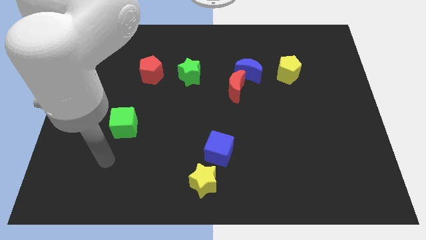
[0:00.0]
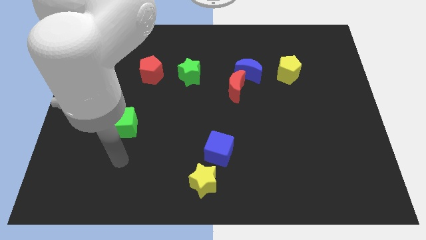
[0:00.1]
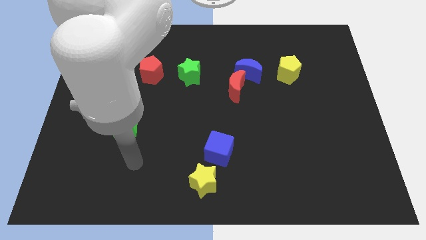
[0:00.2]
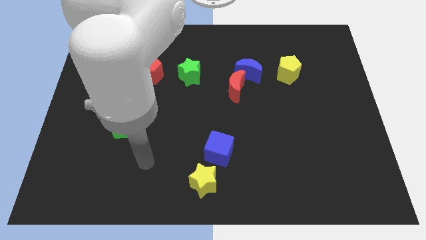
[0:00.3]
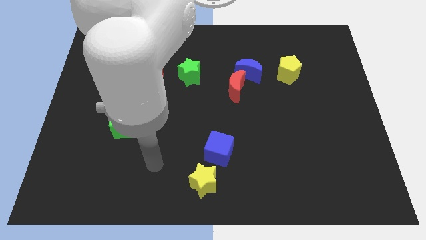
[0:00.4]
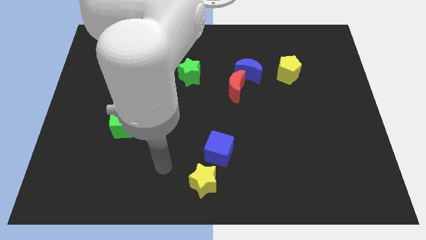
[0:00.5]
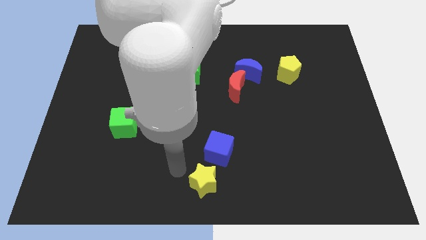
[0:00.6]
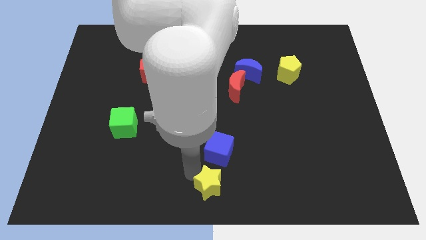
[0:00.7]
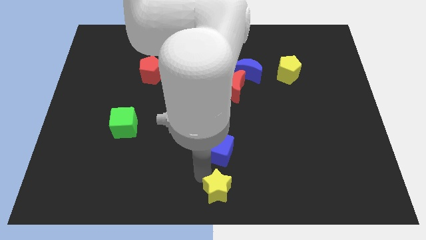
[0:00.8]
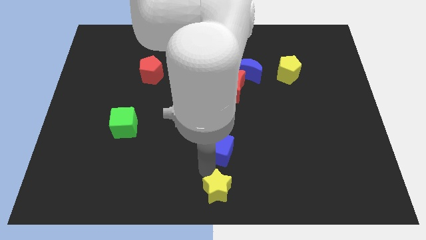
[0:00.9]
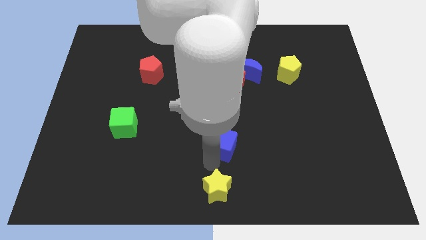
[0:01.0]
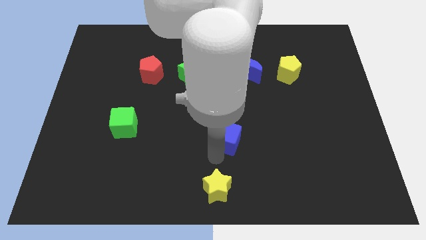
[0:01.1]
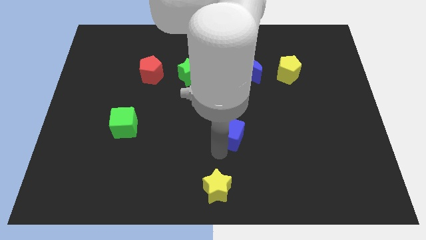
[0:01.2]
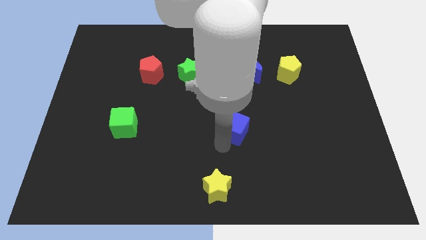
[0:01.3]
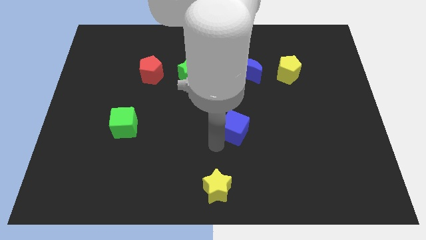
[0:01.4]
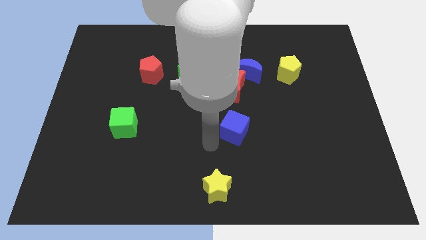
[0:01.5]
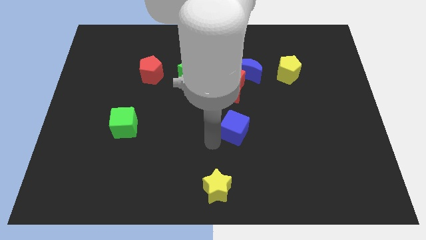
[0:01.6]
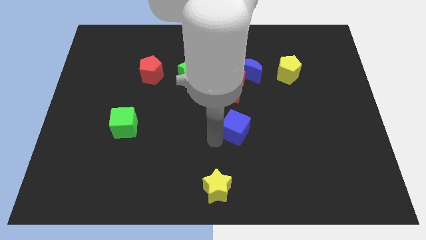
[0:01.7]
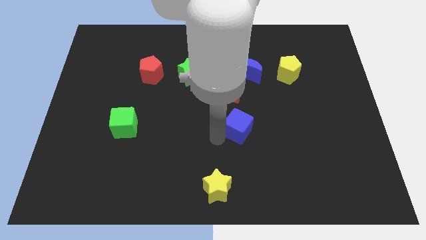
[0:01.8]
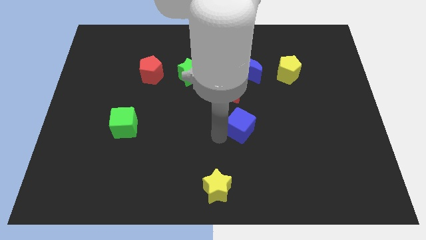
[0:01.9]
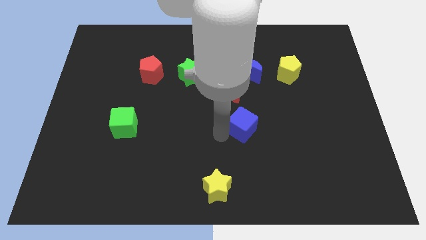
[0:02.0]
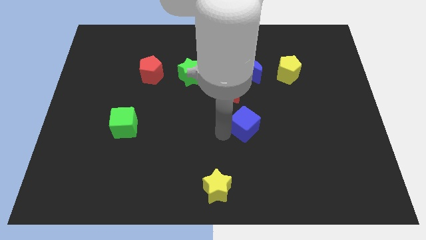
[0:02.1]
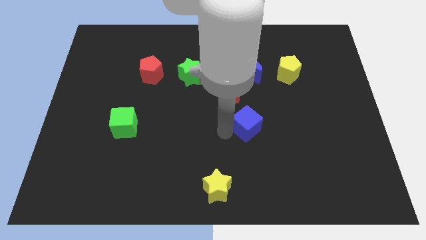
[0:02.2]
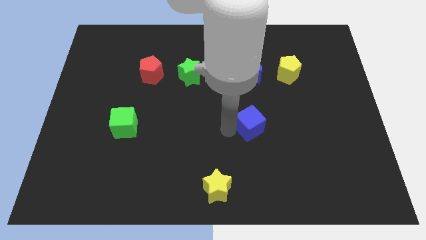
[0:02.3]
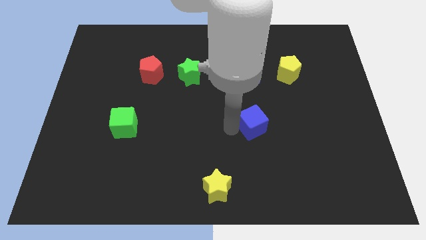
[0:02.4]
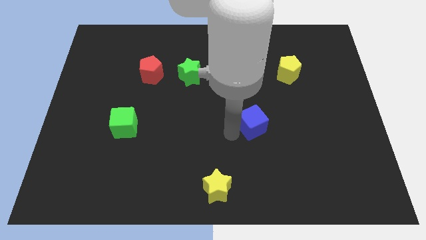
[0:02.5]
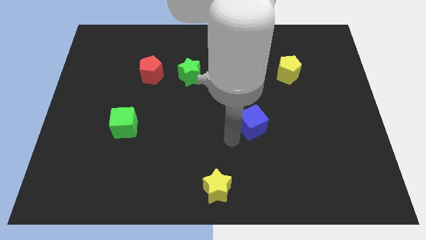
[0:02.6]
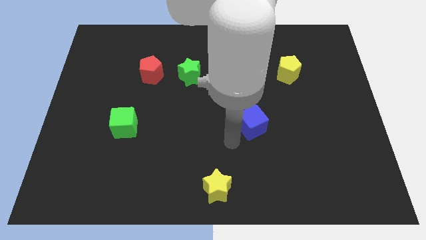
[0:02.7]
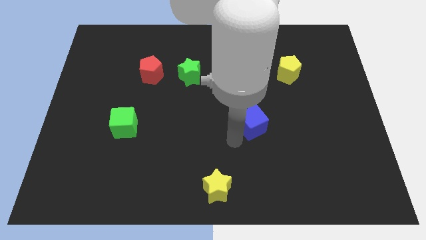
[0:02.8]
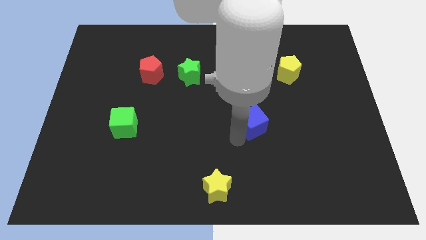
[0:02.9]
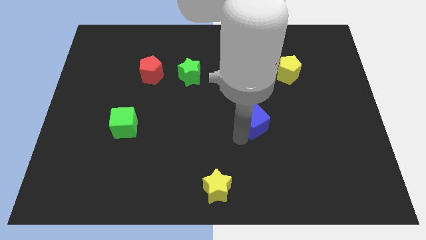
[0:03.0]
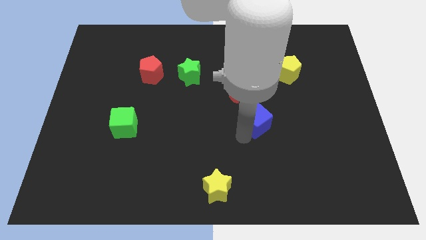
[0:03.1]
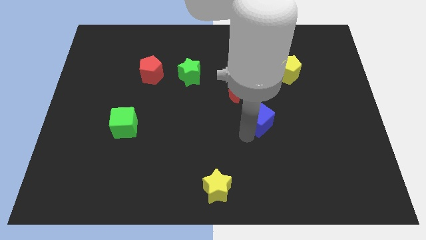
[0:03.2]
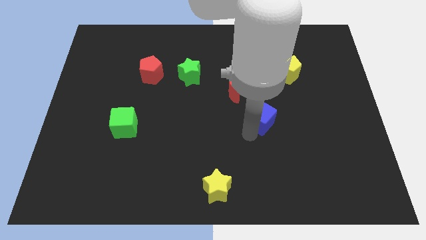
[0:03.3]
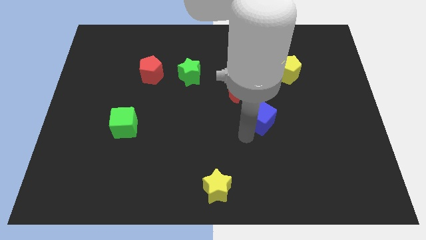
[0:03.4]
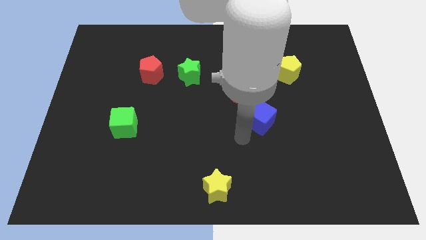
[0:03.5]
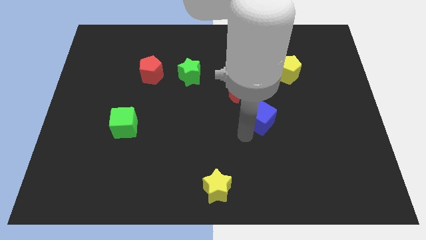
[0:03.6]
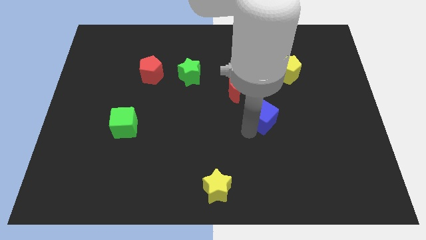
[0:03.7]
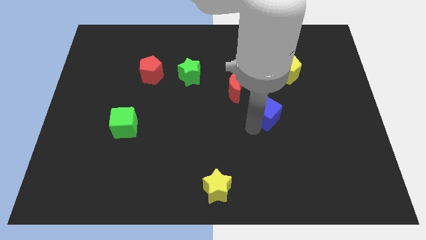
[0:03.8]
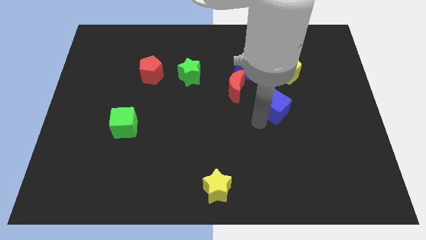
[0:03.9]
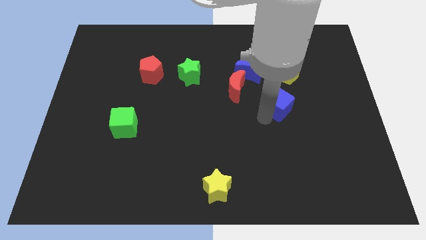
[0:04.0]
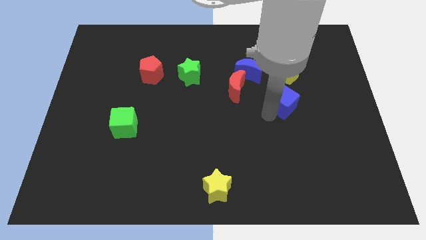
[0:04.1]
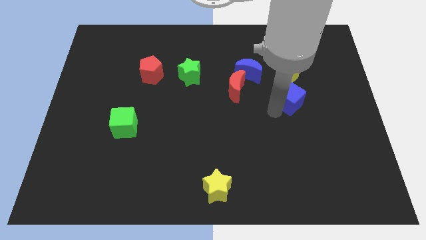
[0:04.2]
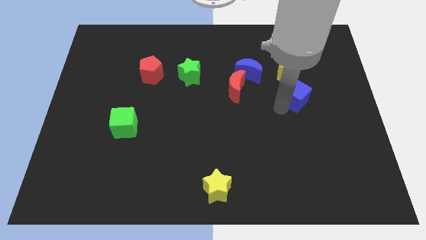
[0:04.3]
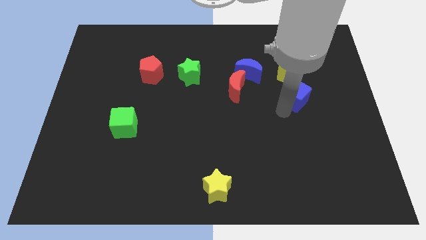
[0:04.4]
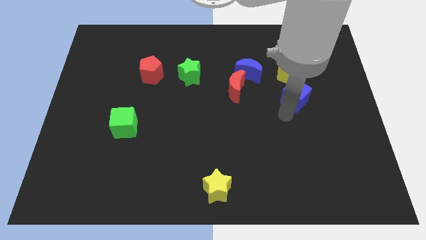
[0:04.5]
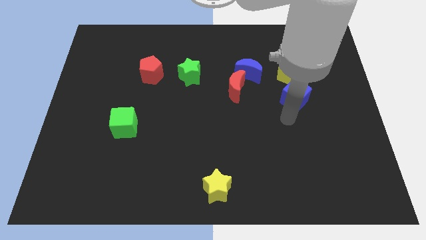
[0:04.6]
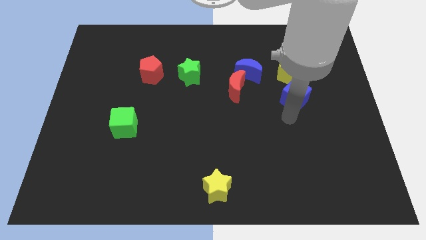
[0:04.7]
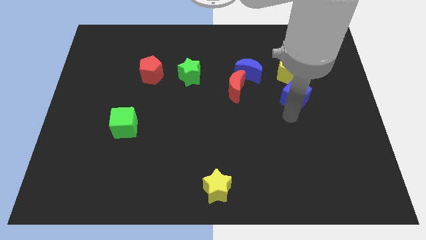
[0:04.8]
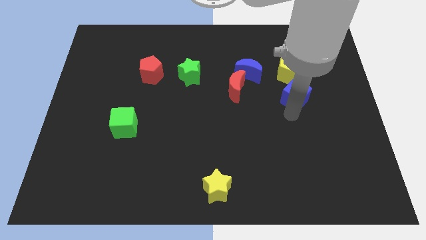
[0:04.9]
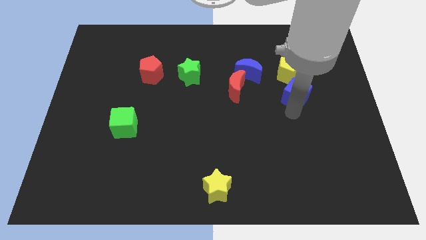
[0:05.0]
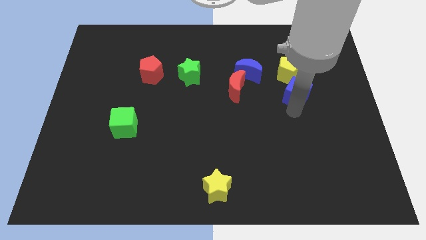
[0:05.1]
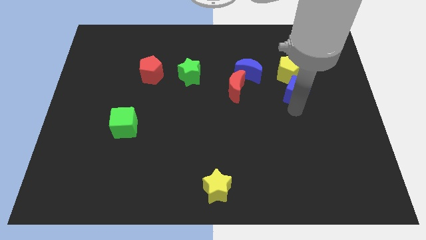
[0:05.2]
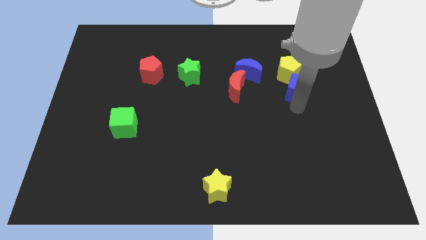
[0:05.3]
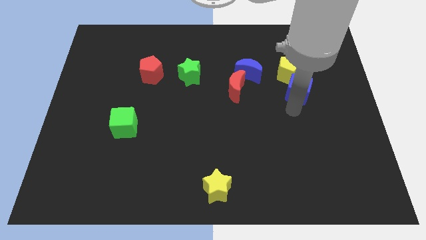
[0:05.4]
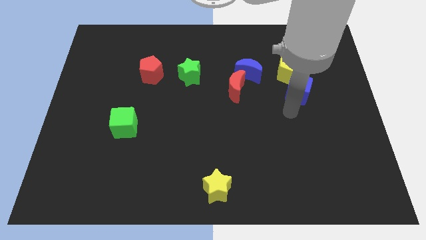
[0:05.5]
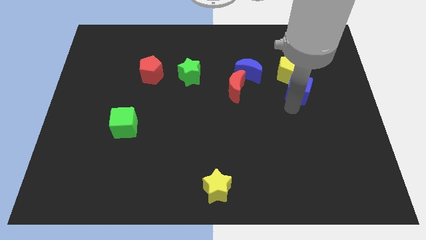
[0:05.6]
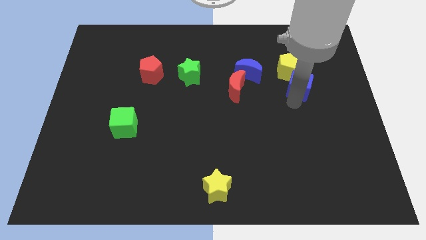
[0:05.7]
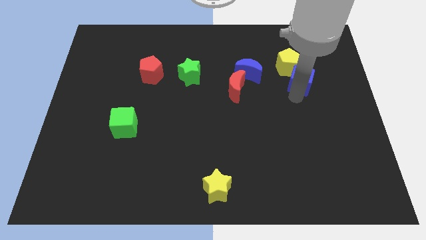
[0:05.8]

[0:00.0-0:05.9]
move the blue cube to the right of the blue moon
